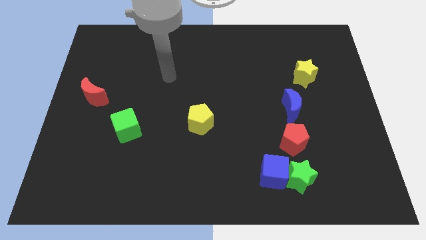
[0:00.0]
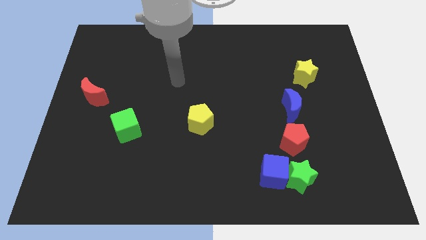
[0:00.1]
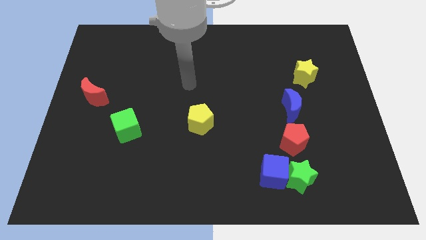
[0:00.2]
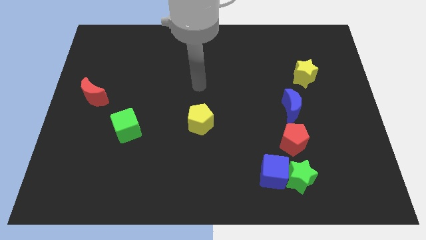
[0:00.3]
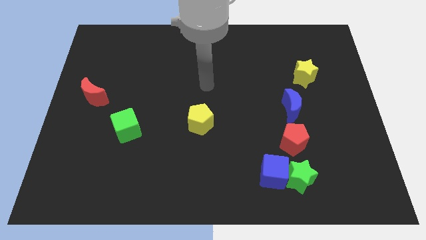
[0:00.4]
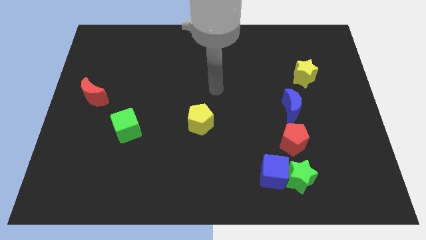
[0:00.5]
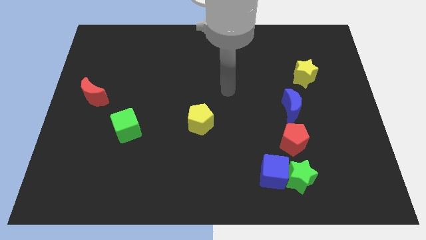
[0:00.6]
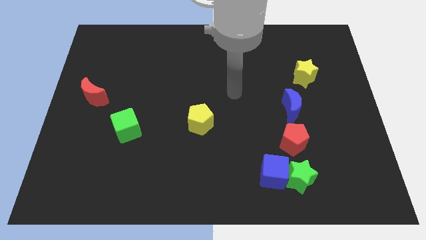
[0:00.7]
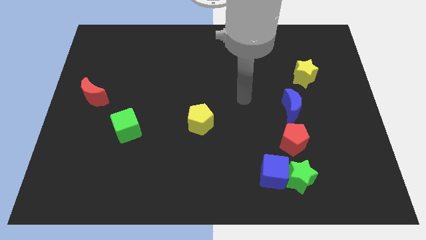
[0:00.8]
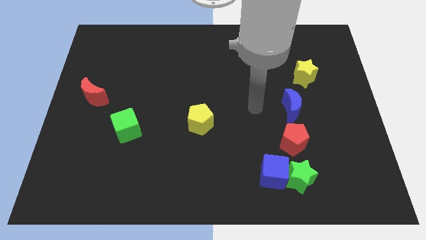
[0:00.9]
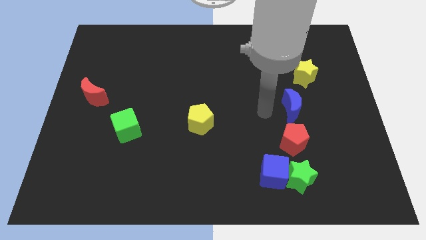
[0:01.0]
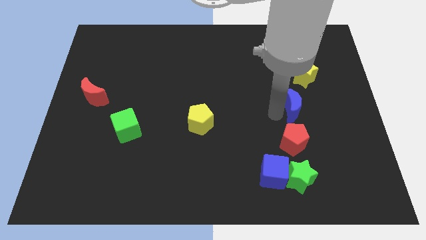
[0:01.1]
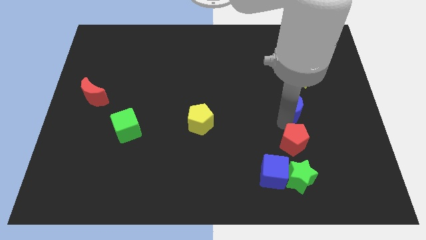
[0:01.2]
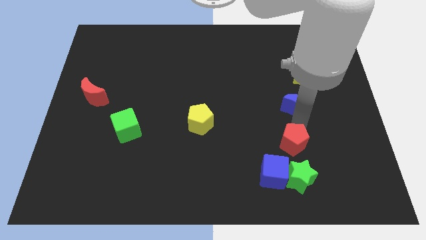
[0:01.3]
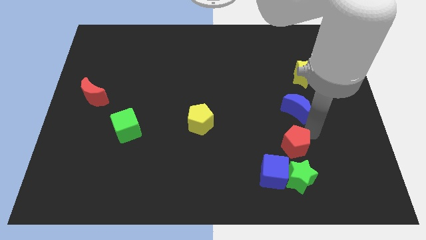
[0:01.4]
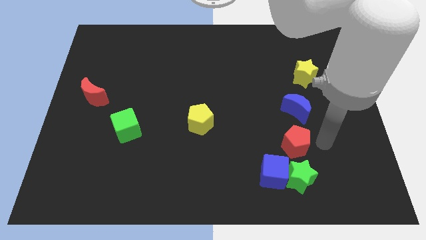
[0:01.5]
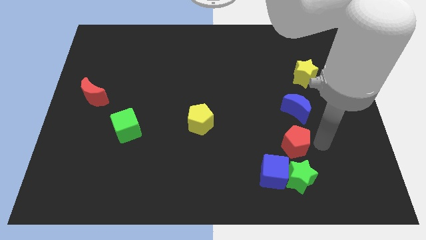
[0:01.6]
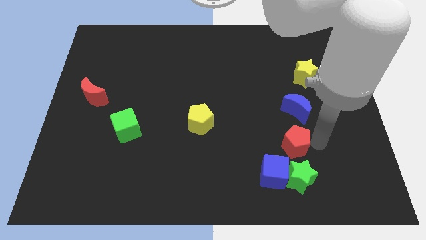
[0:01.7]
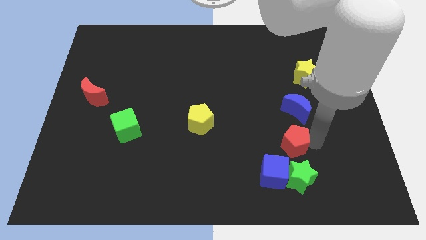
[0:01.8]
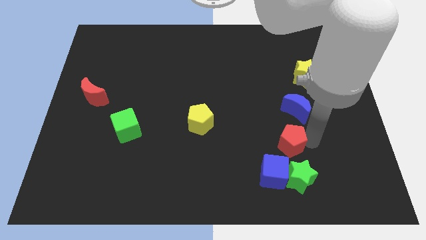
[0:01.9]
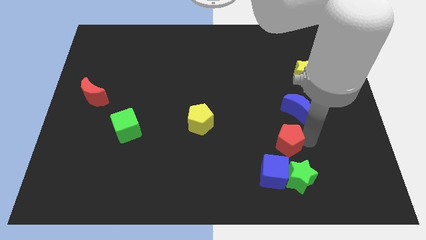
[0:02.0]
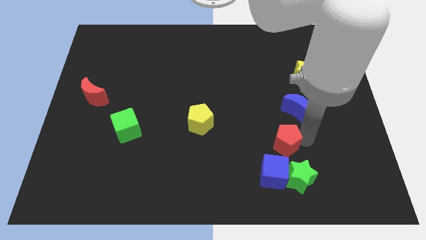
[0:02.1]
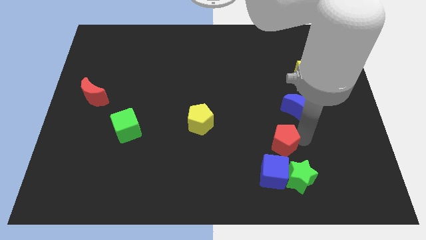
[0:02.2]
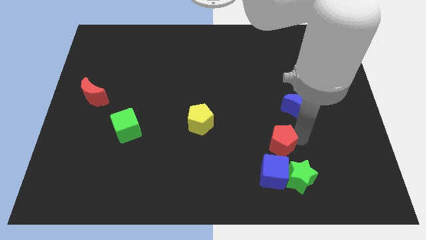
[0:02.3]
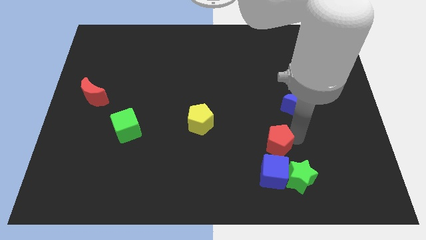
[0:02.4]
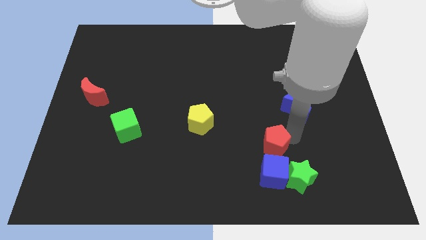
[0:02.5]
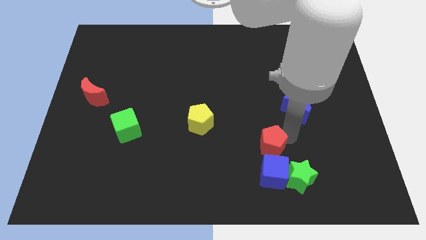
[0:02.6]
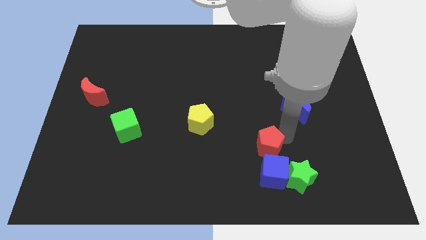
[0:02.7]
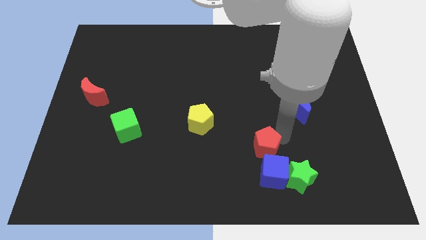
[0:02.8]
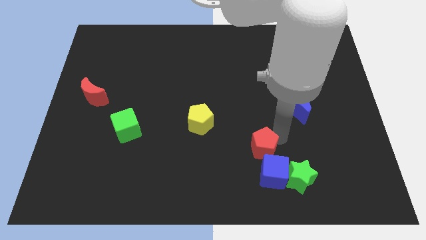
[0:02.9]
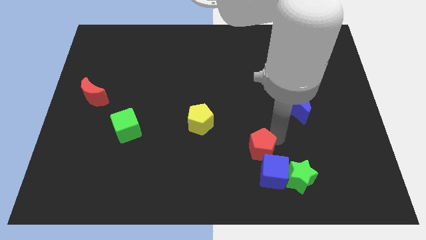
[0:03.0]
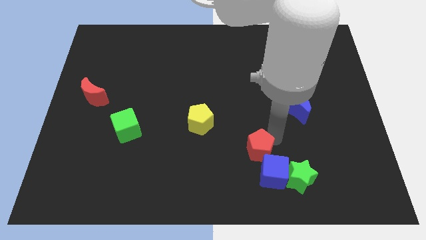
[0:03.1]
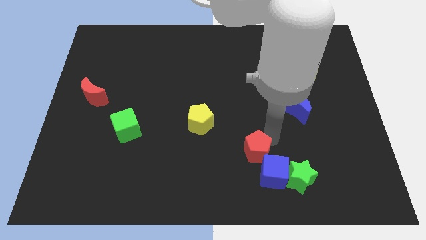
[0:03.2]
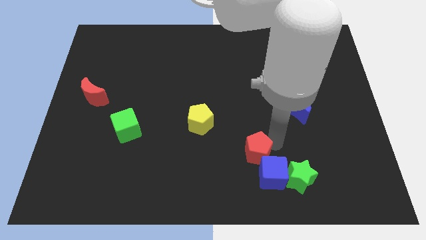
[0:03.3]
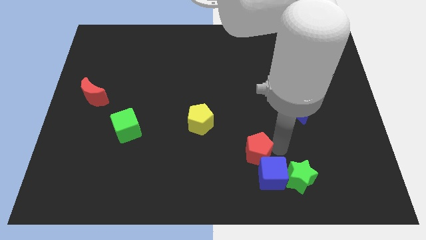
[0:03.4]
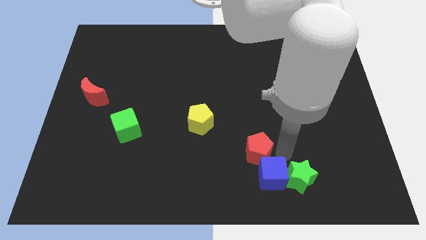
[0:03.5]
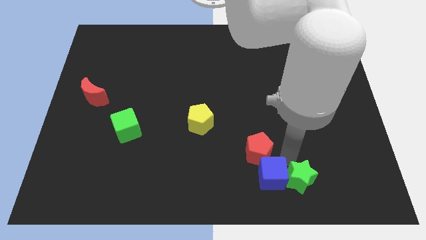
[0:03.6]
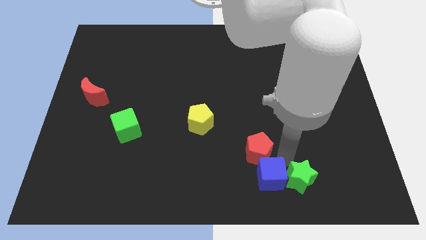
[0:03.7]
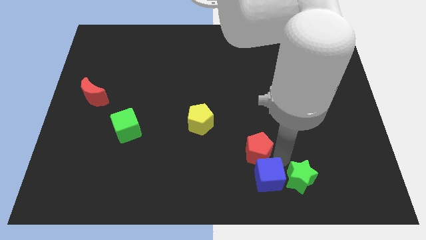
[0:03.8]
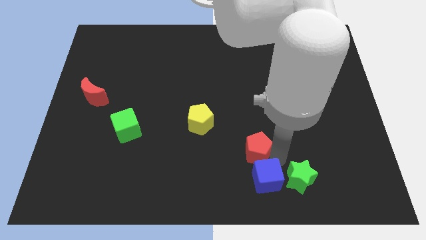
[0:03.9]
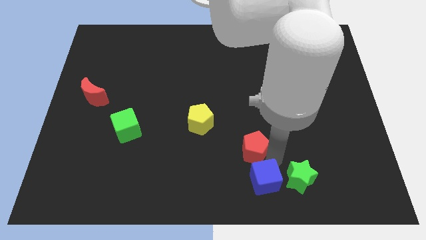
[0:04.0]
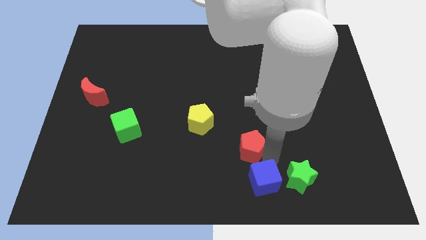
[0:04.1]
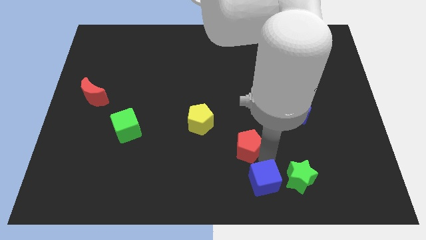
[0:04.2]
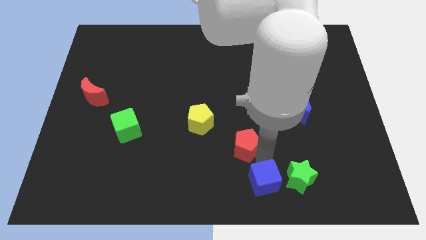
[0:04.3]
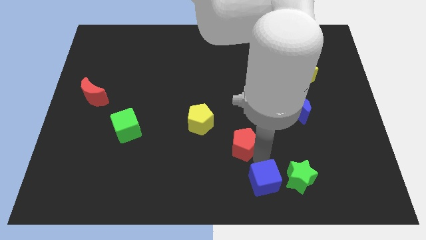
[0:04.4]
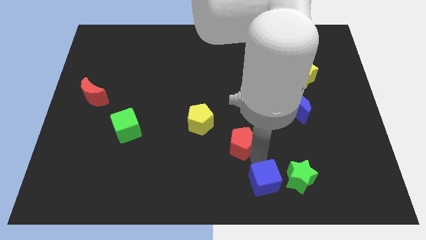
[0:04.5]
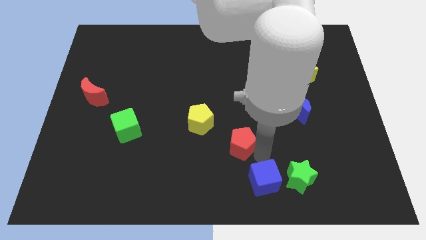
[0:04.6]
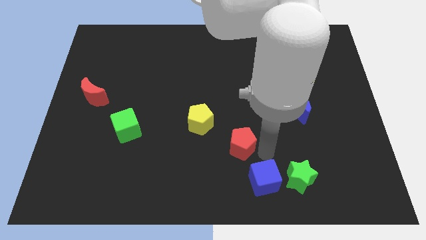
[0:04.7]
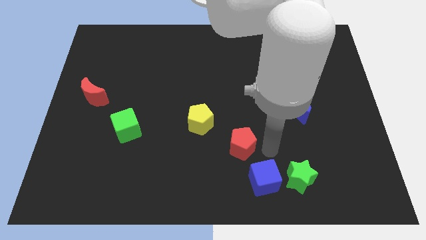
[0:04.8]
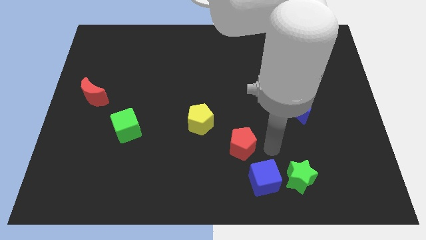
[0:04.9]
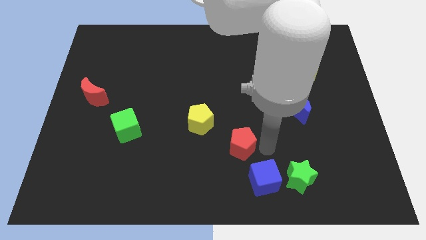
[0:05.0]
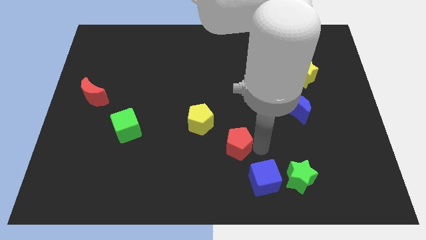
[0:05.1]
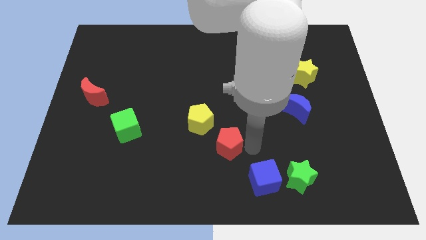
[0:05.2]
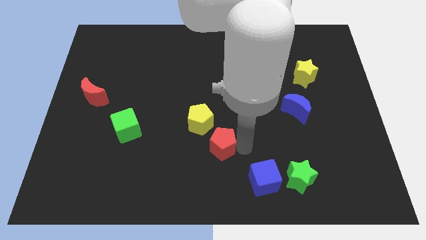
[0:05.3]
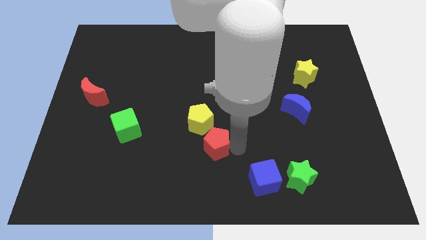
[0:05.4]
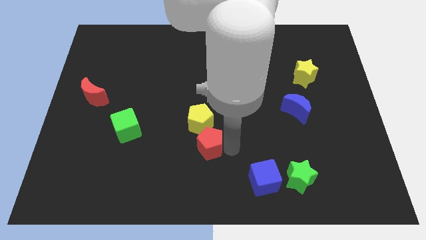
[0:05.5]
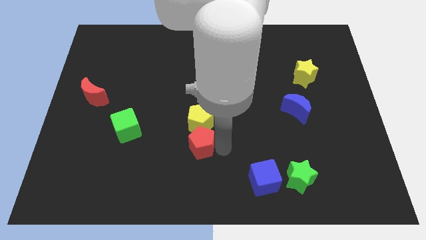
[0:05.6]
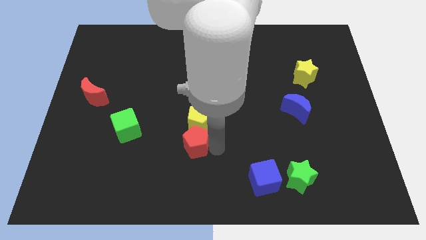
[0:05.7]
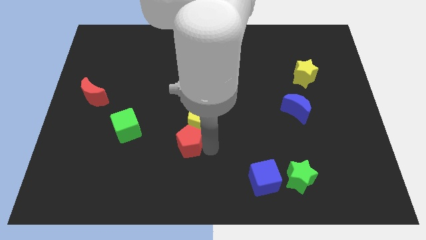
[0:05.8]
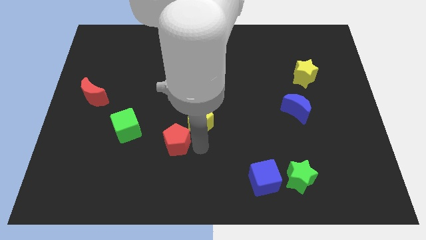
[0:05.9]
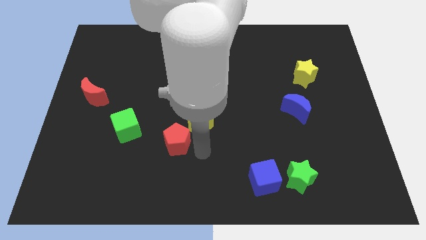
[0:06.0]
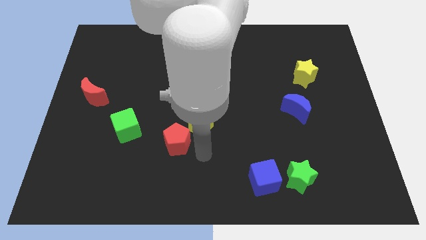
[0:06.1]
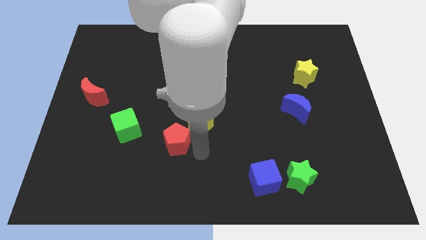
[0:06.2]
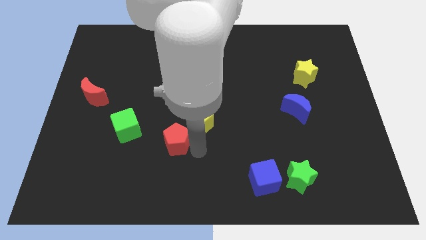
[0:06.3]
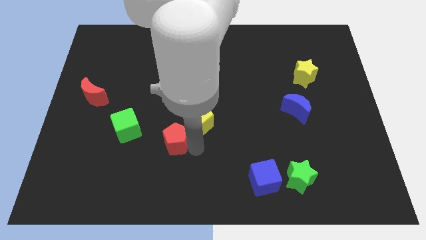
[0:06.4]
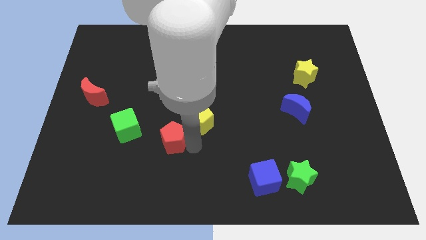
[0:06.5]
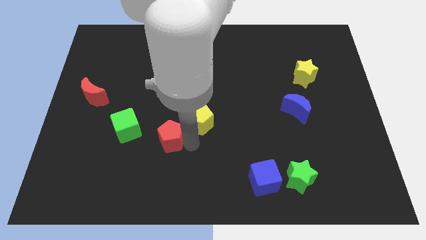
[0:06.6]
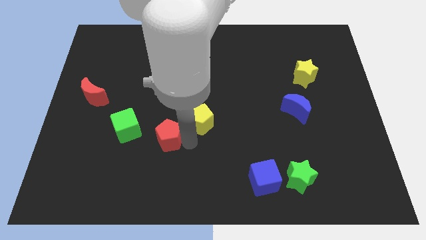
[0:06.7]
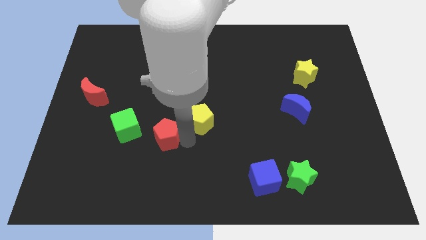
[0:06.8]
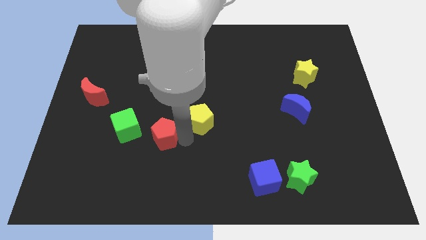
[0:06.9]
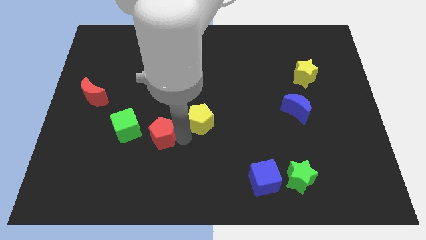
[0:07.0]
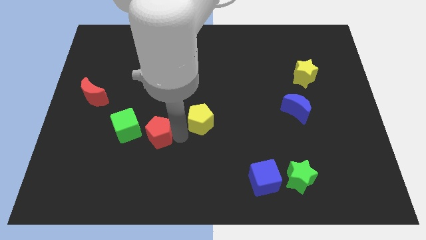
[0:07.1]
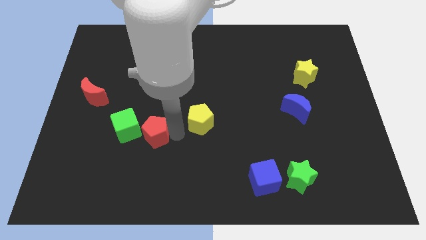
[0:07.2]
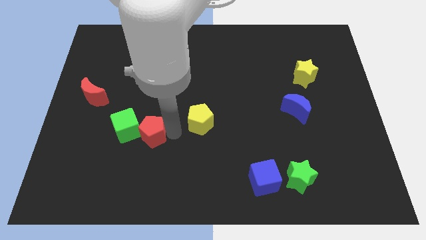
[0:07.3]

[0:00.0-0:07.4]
move the red pentagon next to the green cube
